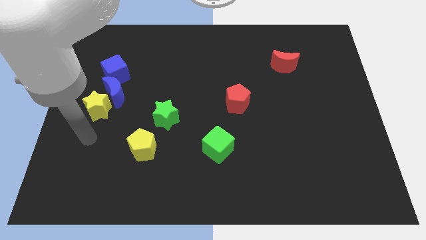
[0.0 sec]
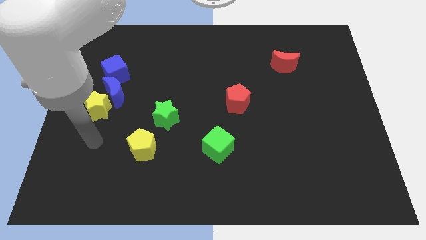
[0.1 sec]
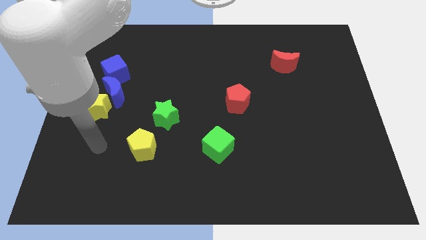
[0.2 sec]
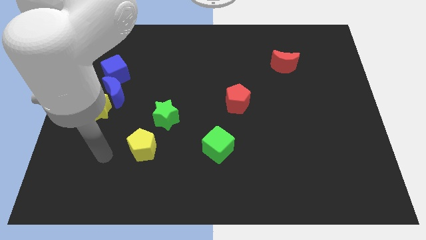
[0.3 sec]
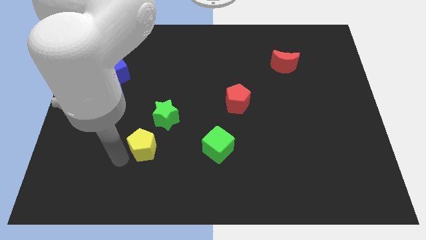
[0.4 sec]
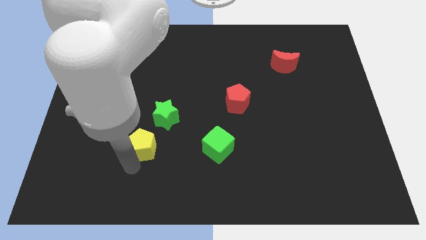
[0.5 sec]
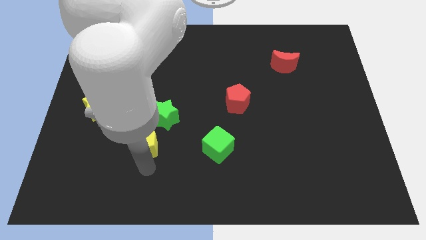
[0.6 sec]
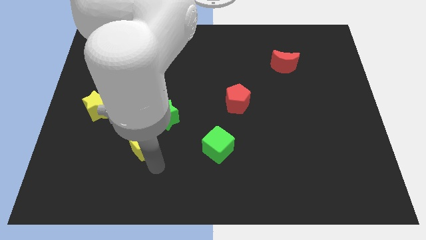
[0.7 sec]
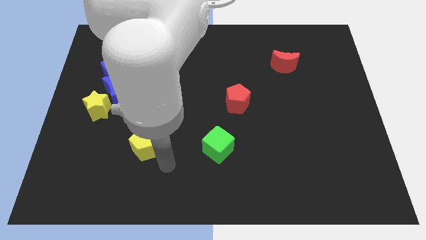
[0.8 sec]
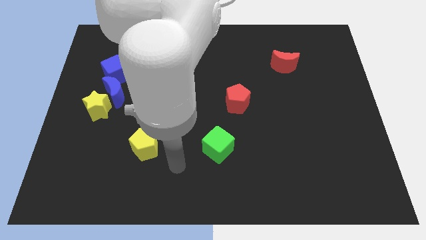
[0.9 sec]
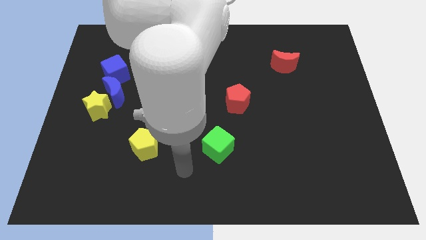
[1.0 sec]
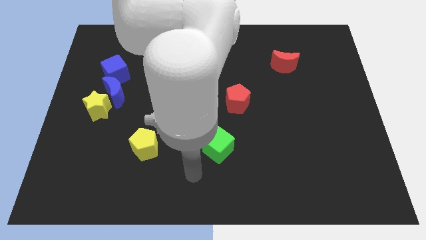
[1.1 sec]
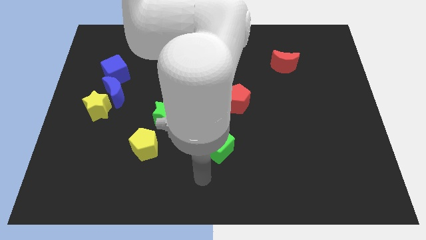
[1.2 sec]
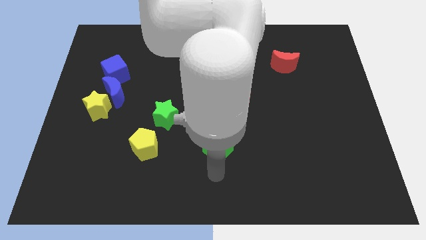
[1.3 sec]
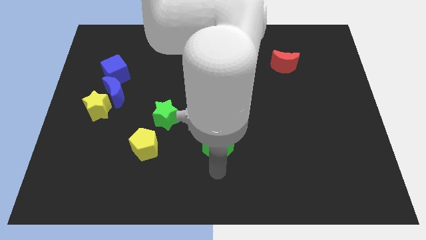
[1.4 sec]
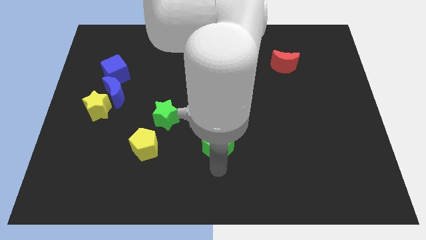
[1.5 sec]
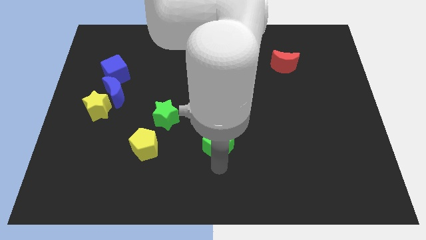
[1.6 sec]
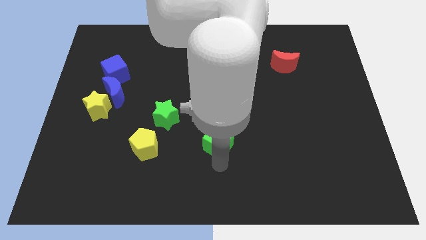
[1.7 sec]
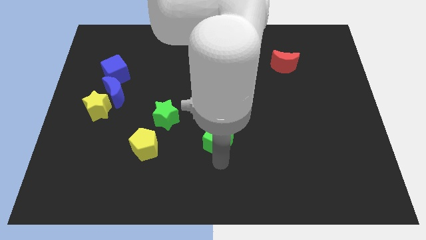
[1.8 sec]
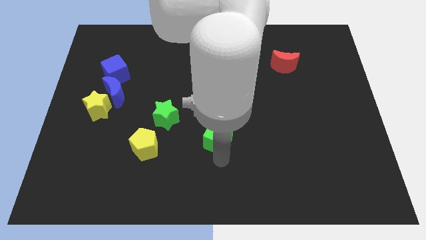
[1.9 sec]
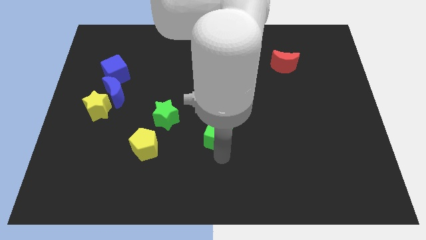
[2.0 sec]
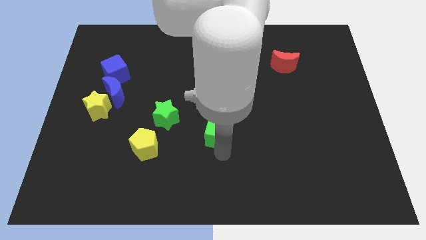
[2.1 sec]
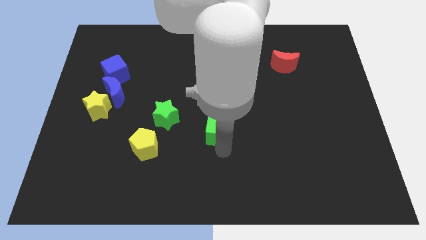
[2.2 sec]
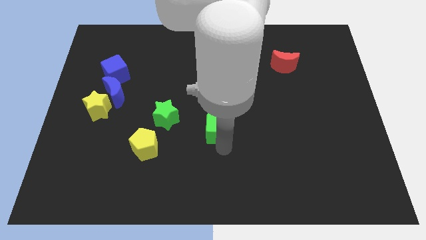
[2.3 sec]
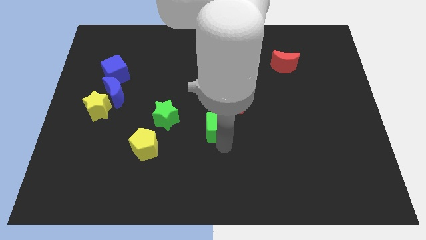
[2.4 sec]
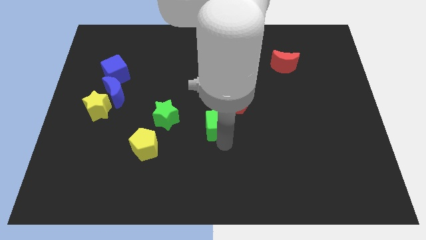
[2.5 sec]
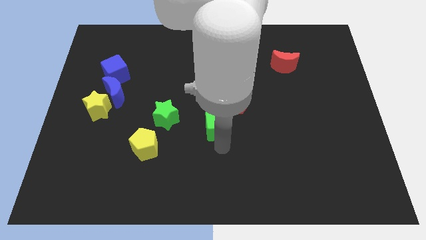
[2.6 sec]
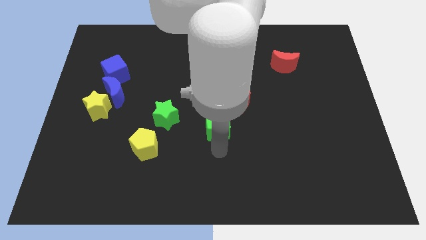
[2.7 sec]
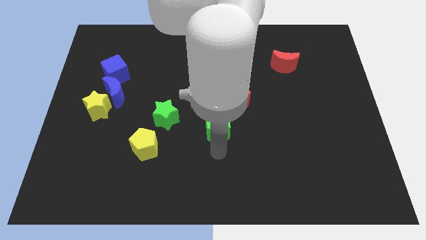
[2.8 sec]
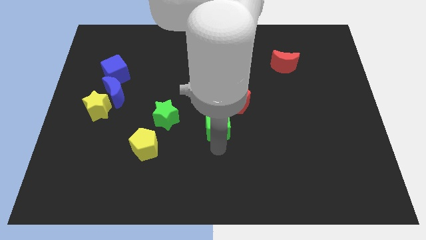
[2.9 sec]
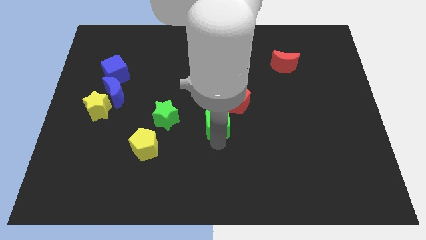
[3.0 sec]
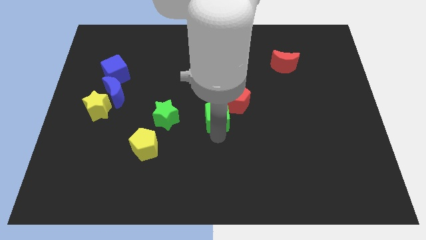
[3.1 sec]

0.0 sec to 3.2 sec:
slightly push the green cube upwards

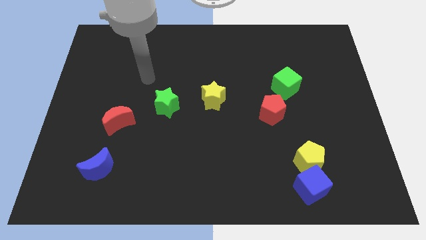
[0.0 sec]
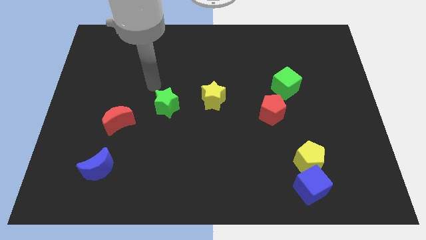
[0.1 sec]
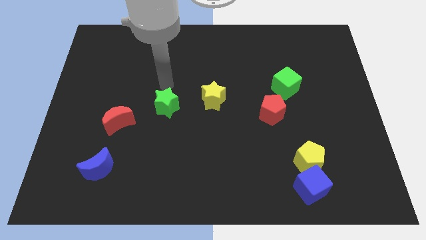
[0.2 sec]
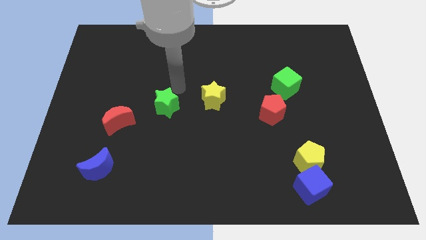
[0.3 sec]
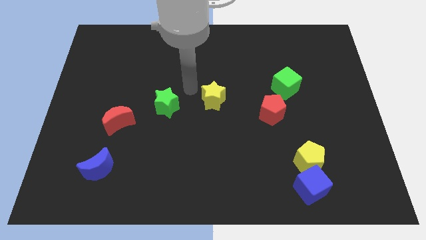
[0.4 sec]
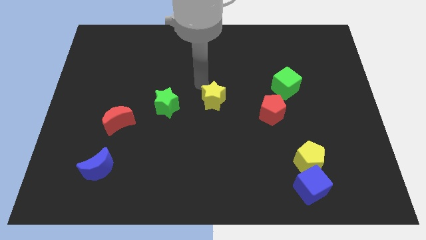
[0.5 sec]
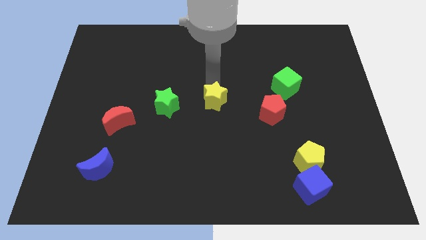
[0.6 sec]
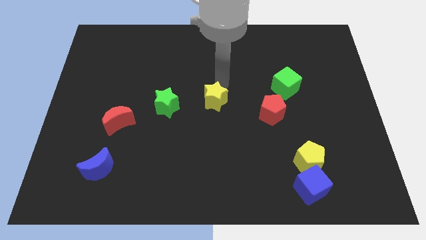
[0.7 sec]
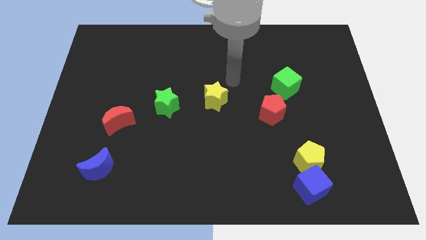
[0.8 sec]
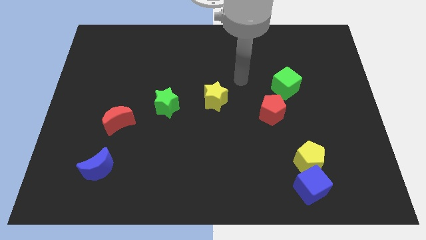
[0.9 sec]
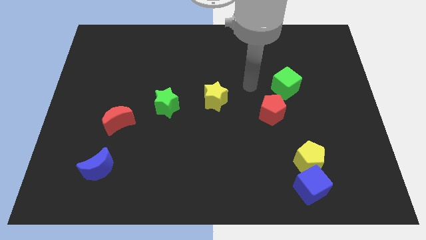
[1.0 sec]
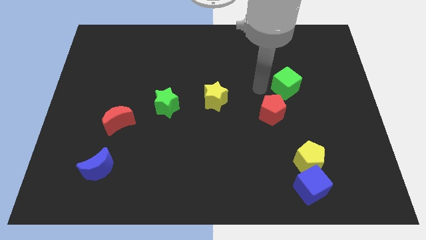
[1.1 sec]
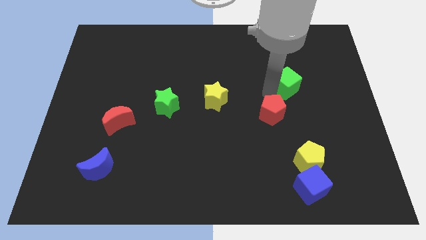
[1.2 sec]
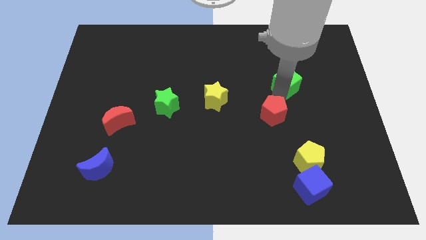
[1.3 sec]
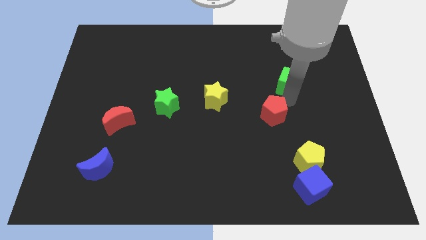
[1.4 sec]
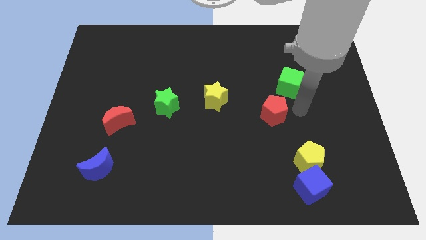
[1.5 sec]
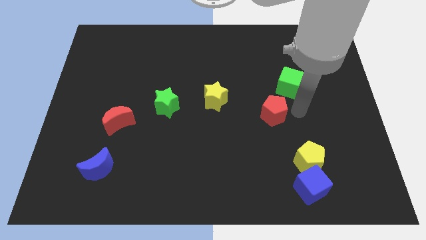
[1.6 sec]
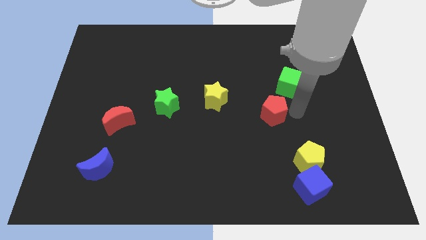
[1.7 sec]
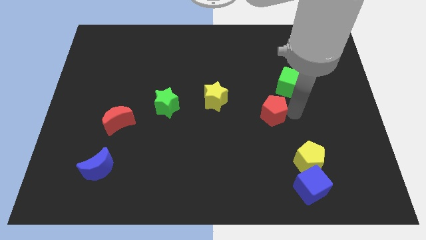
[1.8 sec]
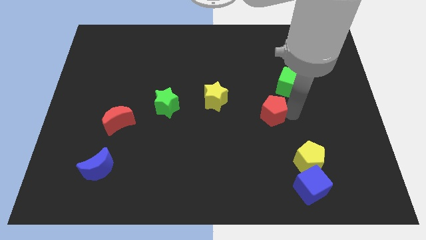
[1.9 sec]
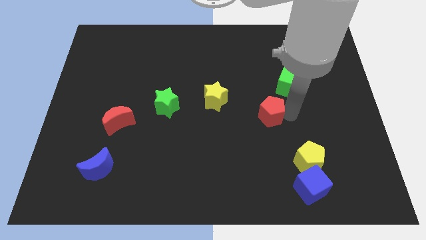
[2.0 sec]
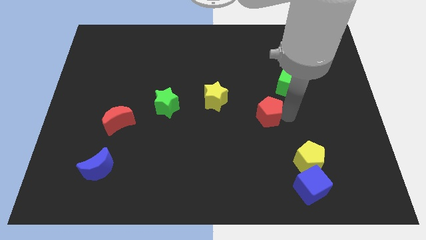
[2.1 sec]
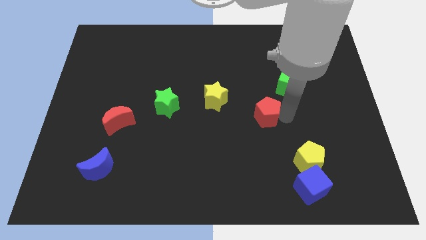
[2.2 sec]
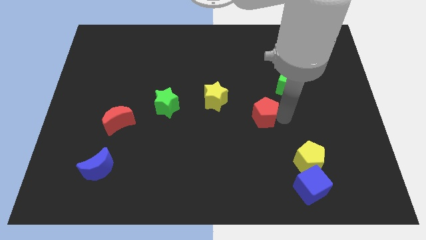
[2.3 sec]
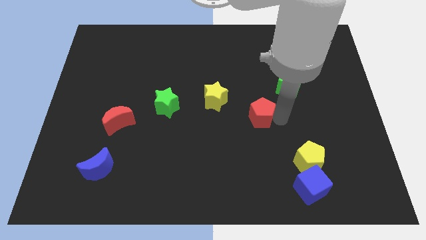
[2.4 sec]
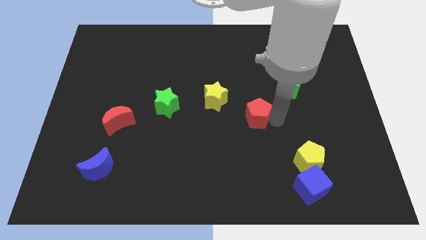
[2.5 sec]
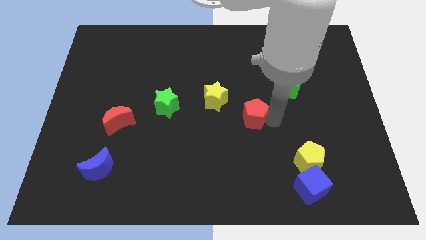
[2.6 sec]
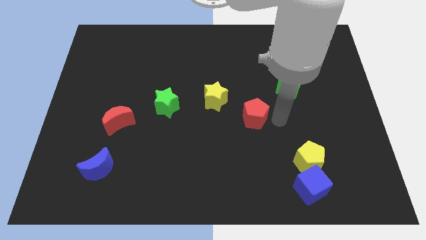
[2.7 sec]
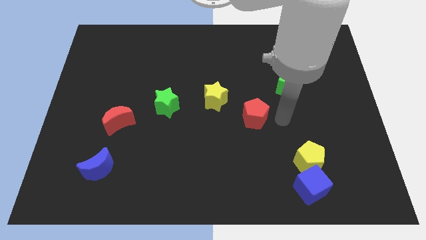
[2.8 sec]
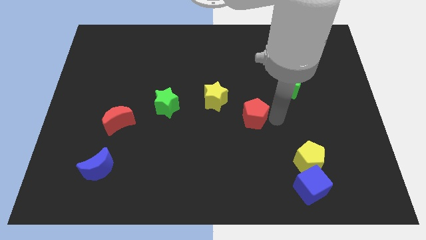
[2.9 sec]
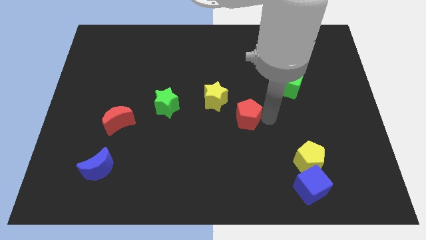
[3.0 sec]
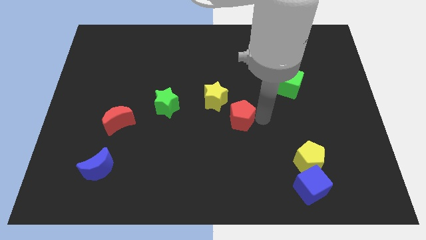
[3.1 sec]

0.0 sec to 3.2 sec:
slightly push the red pentagon to the left

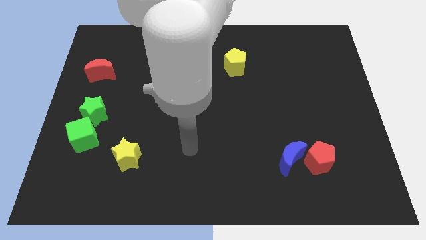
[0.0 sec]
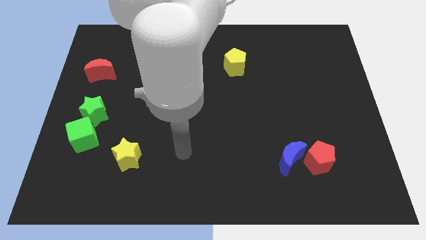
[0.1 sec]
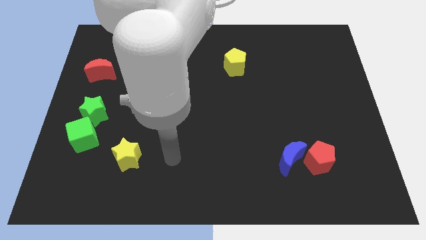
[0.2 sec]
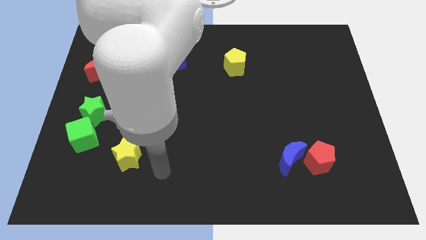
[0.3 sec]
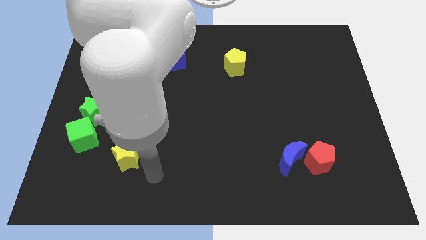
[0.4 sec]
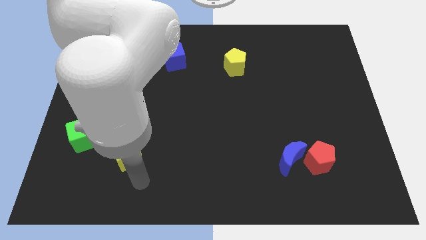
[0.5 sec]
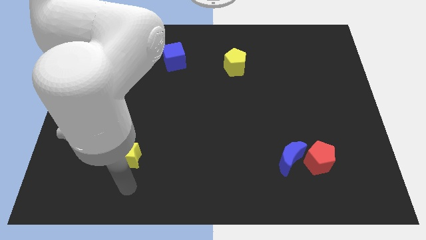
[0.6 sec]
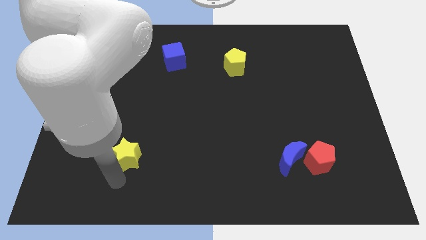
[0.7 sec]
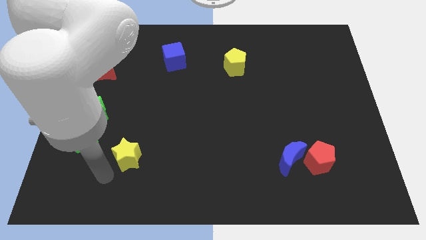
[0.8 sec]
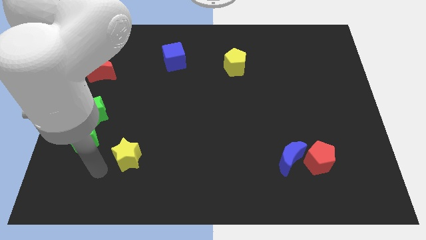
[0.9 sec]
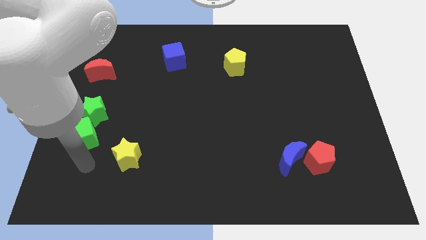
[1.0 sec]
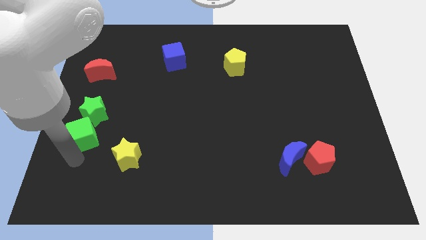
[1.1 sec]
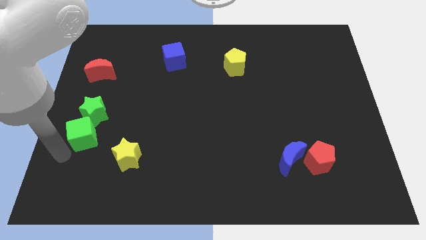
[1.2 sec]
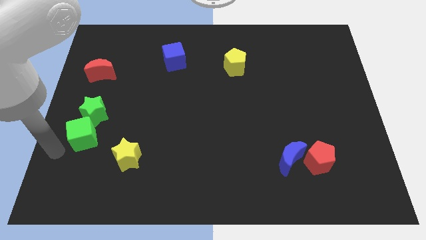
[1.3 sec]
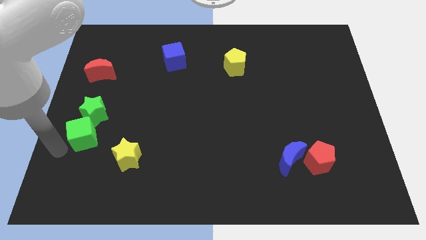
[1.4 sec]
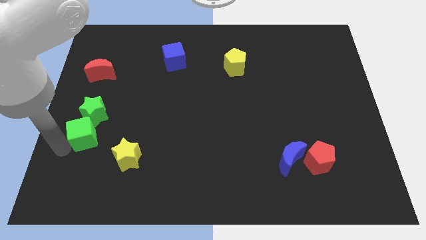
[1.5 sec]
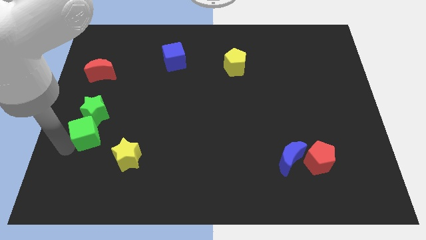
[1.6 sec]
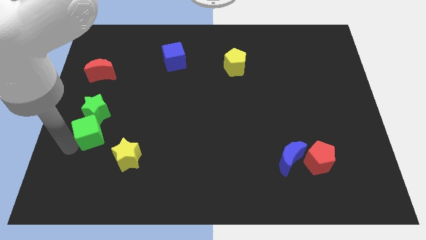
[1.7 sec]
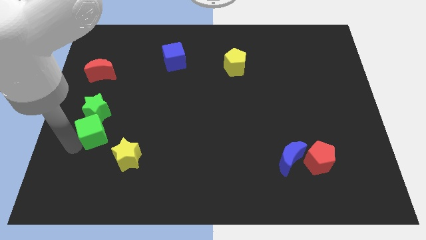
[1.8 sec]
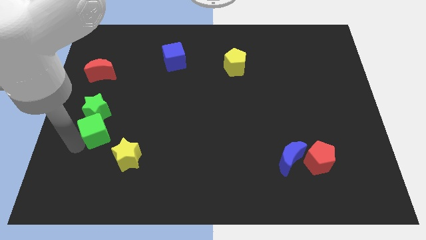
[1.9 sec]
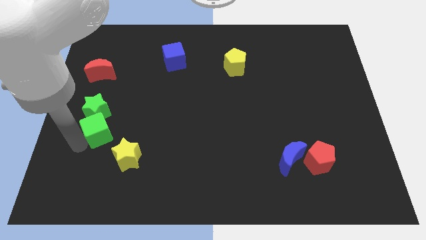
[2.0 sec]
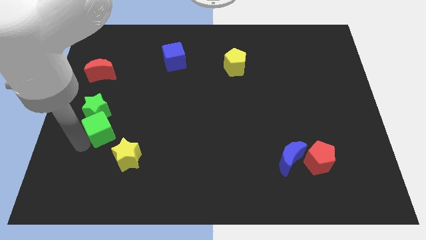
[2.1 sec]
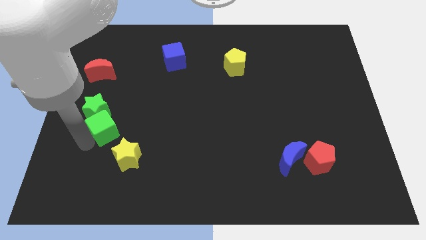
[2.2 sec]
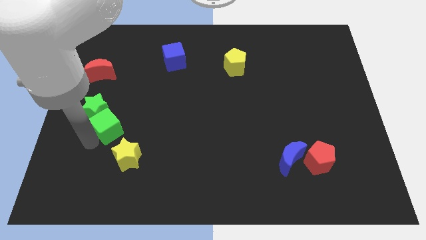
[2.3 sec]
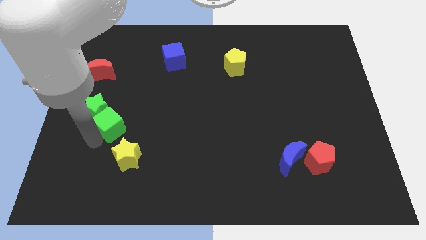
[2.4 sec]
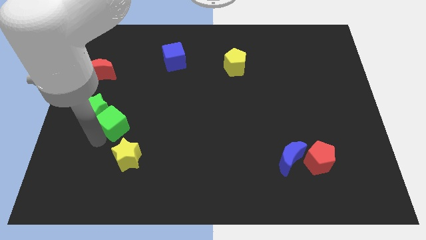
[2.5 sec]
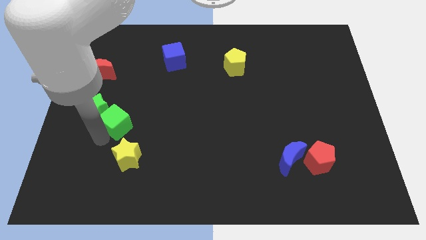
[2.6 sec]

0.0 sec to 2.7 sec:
slightly slide the green cube upwards and then to the right
